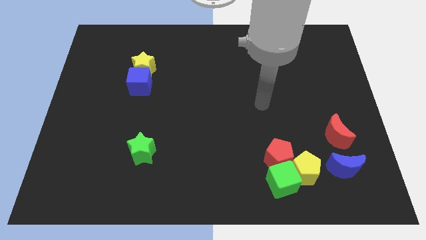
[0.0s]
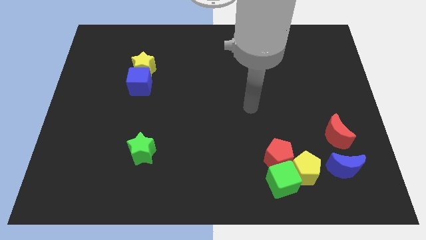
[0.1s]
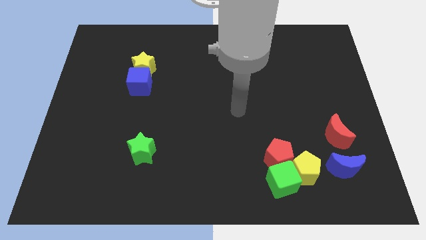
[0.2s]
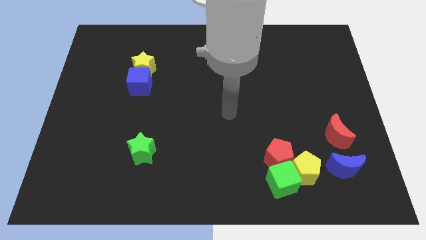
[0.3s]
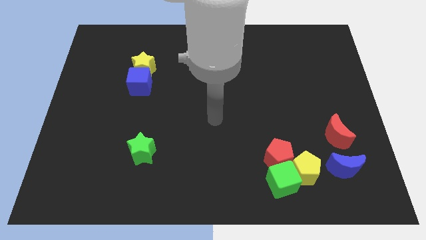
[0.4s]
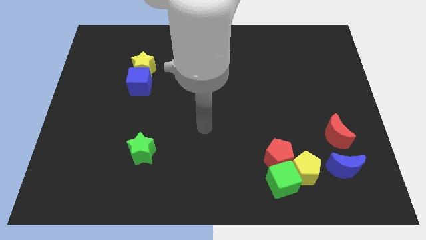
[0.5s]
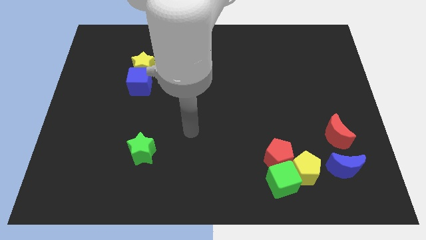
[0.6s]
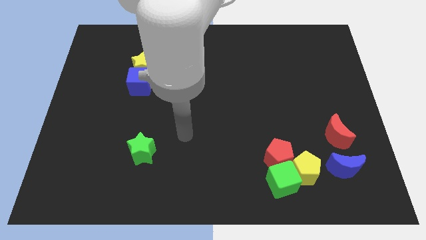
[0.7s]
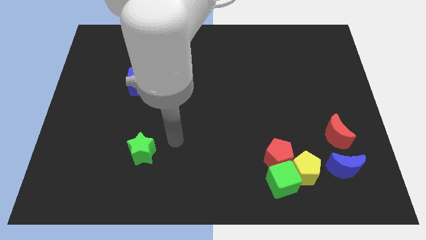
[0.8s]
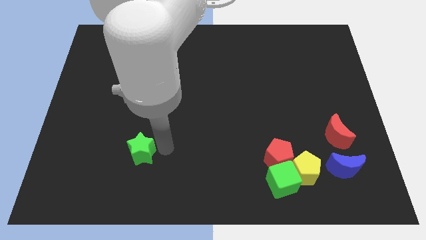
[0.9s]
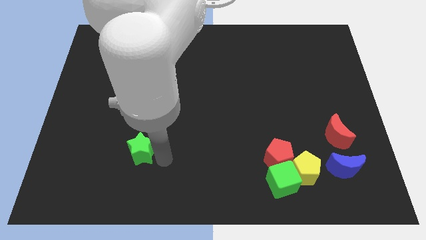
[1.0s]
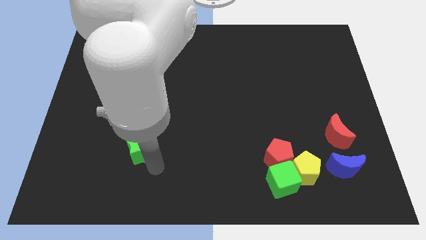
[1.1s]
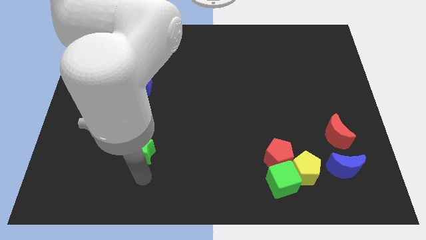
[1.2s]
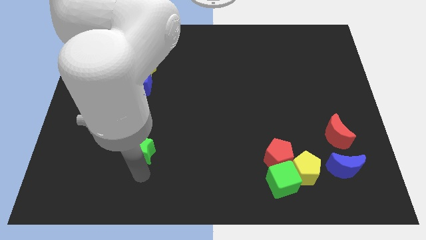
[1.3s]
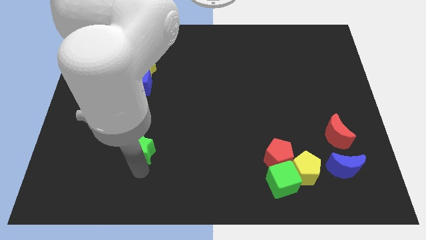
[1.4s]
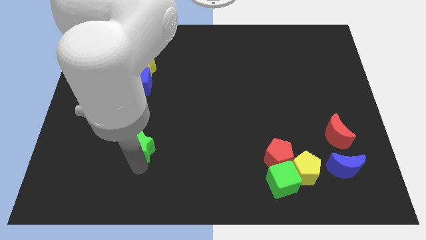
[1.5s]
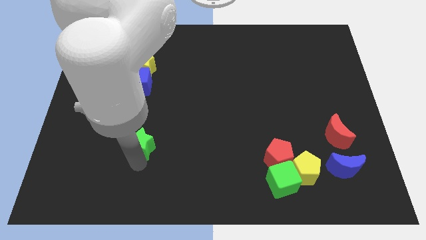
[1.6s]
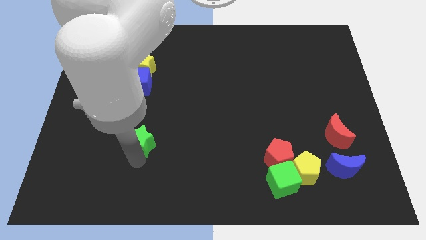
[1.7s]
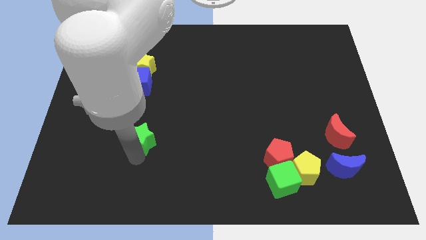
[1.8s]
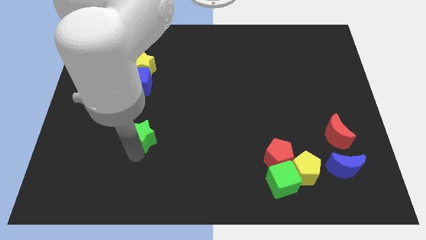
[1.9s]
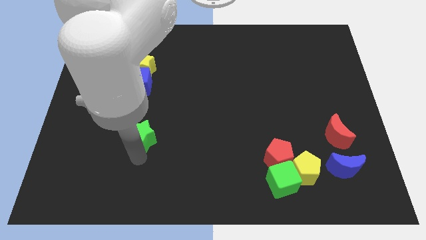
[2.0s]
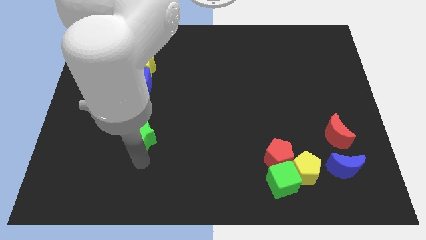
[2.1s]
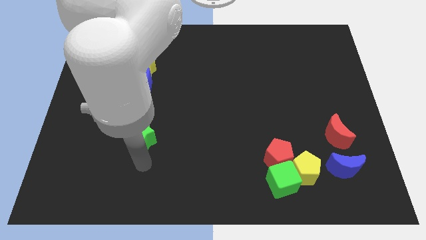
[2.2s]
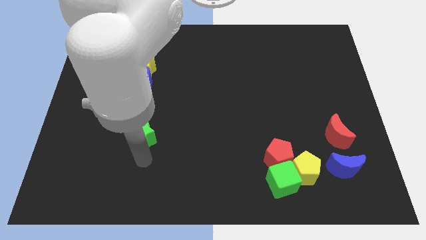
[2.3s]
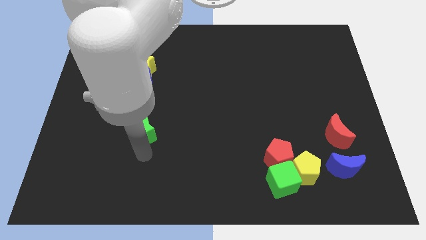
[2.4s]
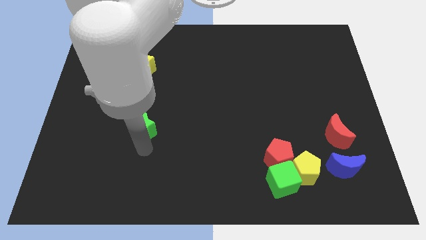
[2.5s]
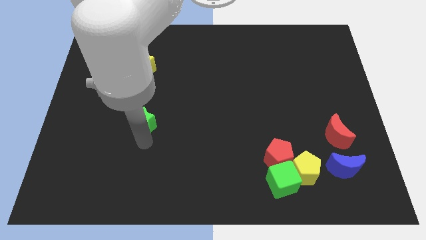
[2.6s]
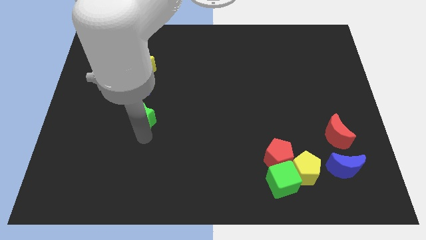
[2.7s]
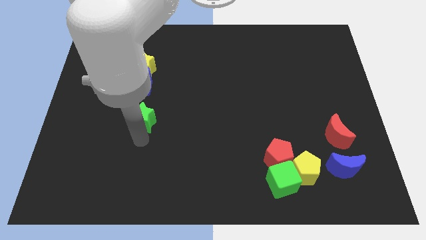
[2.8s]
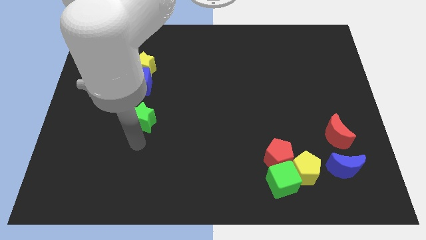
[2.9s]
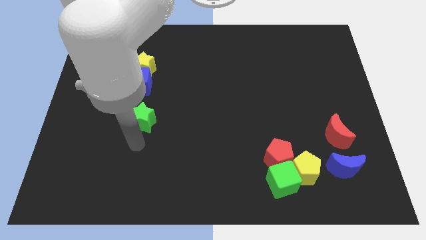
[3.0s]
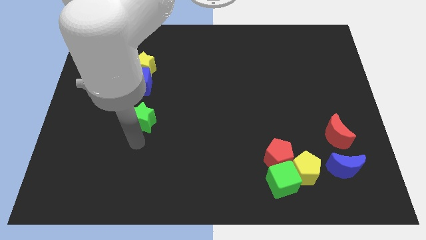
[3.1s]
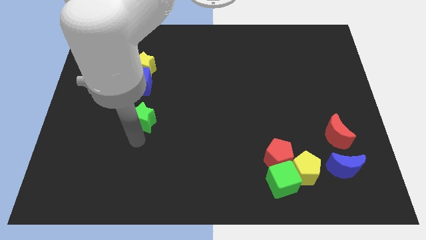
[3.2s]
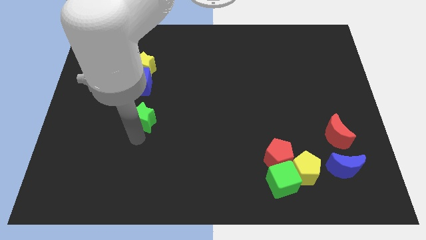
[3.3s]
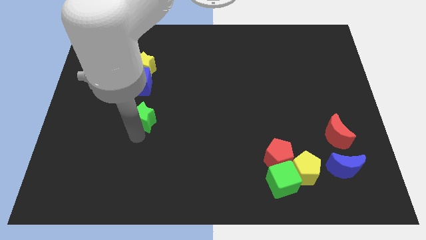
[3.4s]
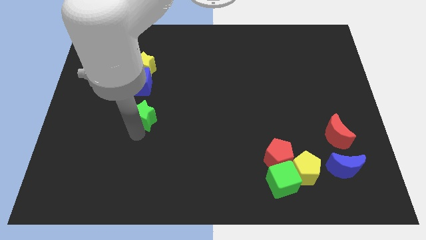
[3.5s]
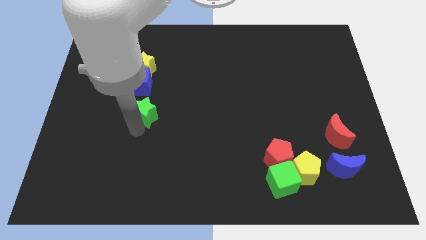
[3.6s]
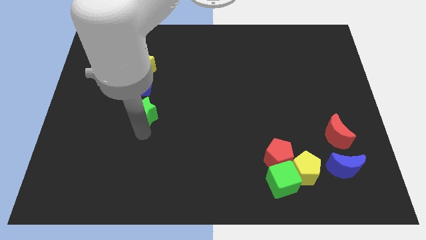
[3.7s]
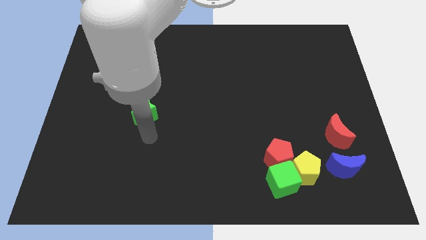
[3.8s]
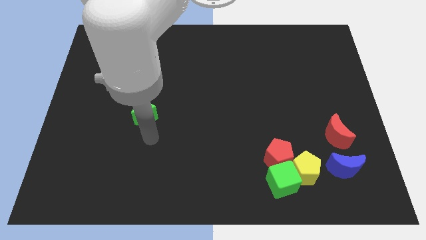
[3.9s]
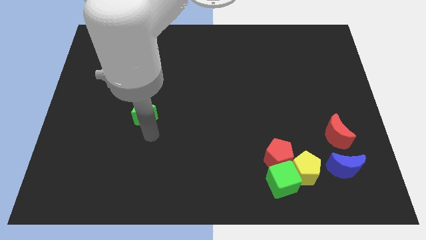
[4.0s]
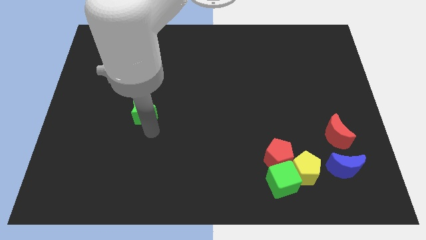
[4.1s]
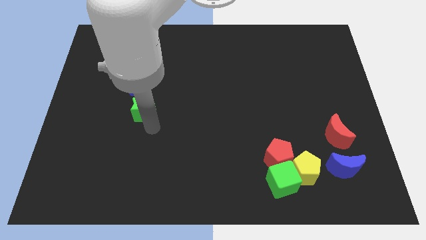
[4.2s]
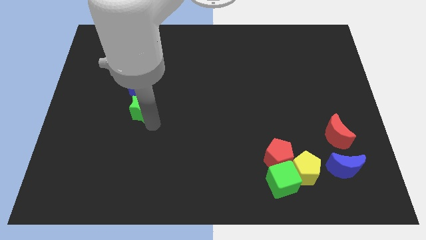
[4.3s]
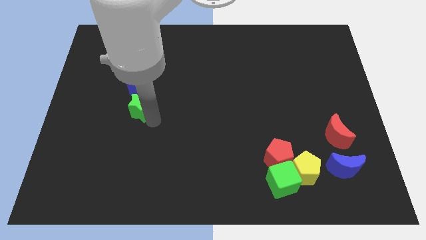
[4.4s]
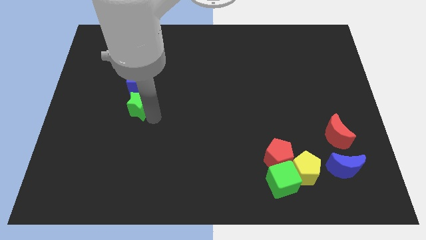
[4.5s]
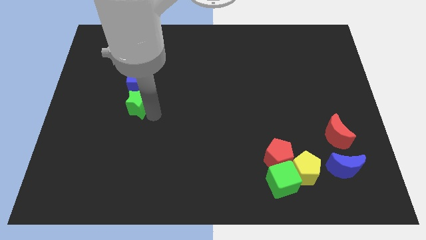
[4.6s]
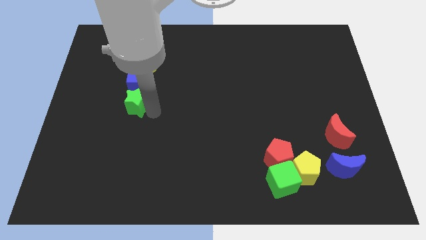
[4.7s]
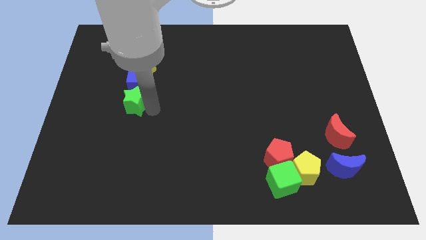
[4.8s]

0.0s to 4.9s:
push the green star close to the blue cube

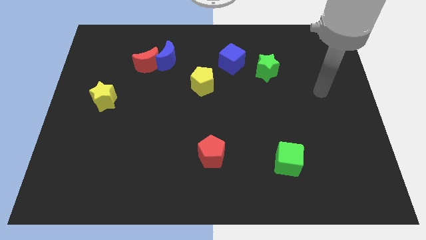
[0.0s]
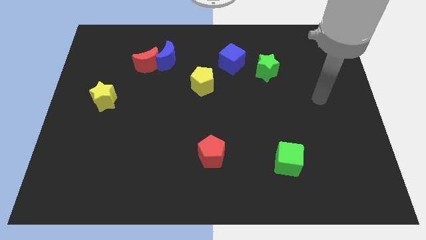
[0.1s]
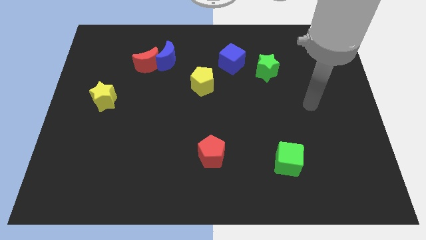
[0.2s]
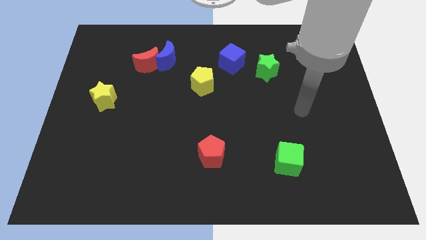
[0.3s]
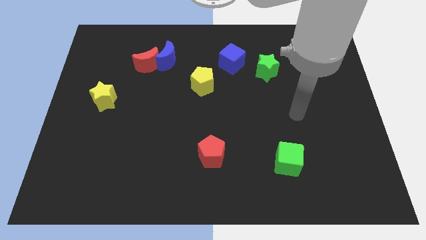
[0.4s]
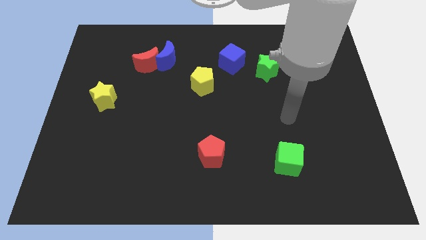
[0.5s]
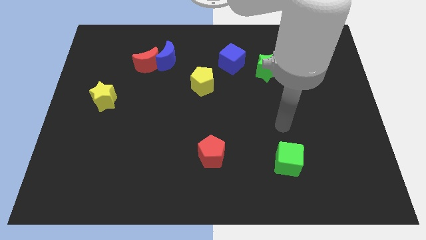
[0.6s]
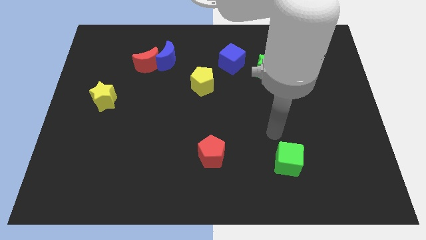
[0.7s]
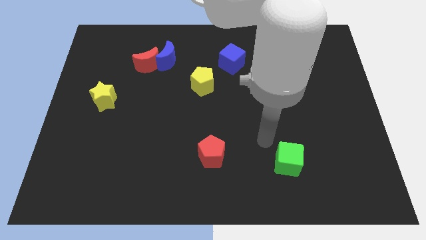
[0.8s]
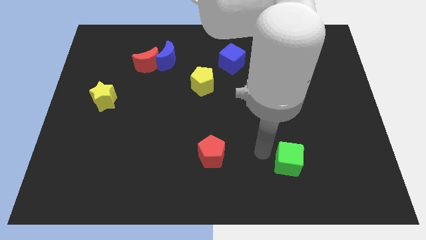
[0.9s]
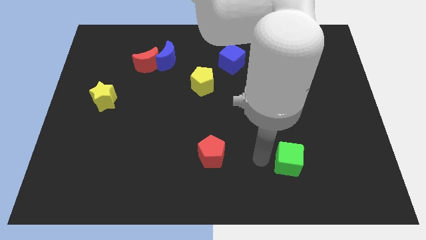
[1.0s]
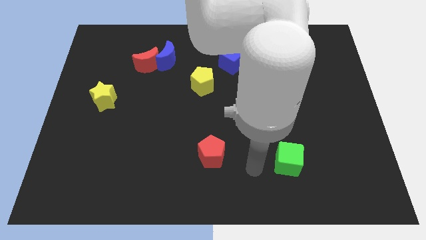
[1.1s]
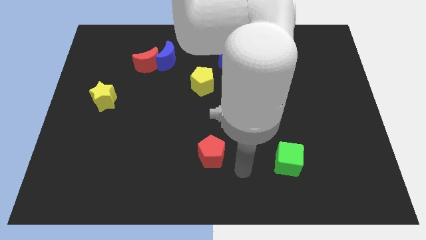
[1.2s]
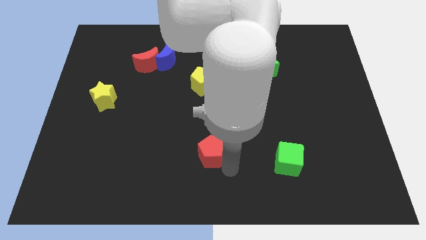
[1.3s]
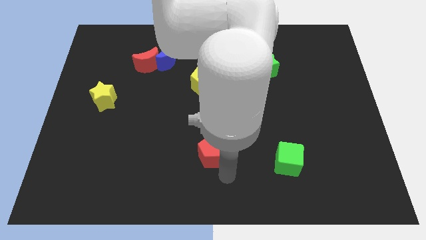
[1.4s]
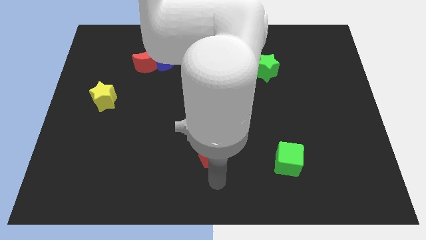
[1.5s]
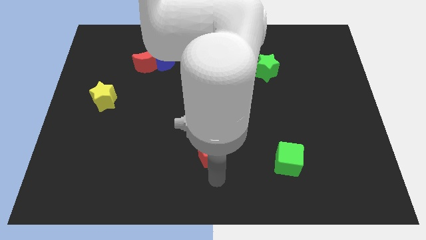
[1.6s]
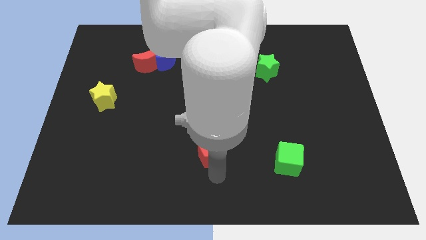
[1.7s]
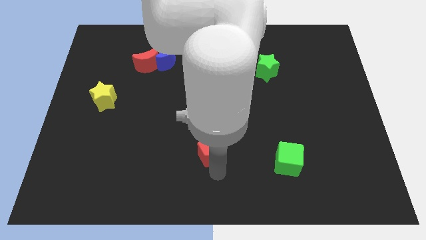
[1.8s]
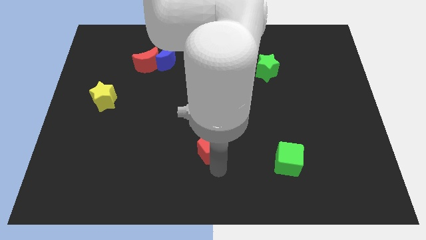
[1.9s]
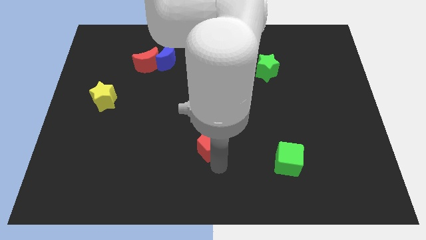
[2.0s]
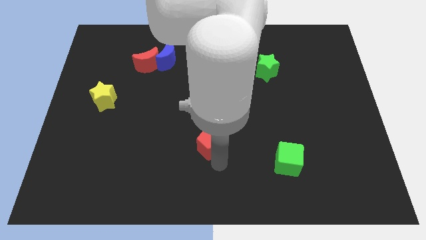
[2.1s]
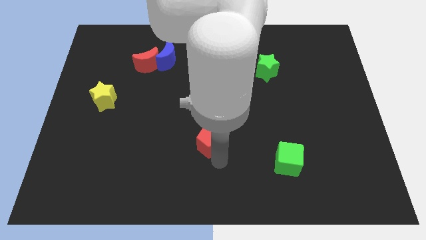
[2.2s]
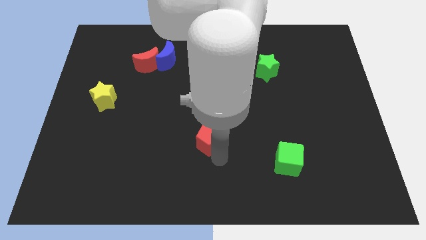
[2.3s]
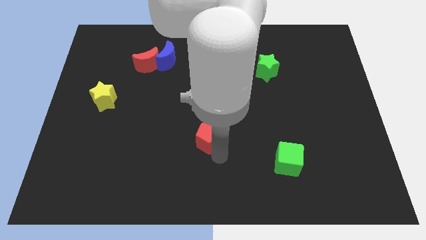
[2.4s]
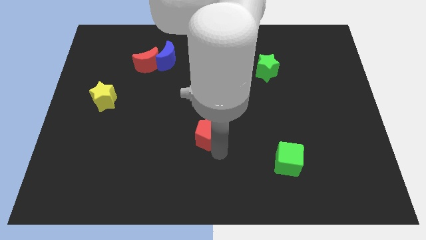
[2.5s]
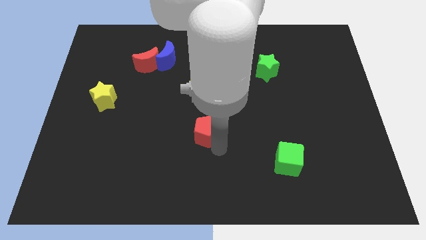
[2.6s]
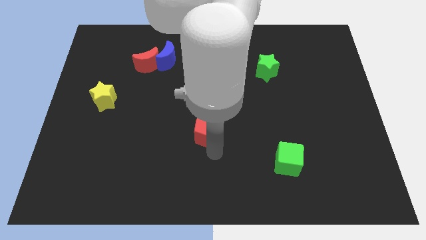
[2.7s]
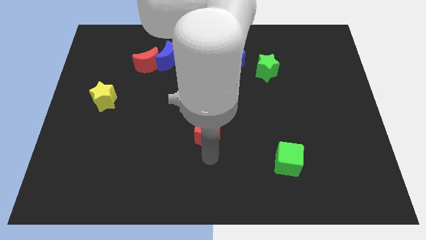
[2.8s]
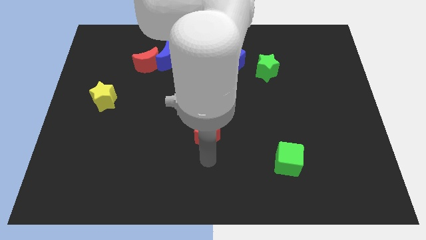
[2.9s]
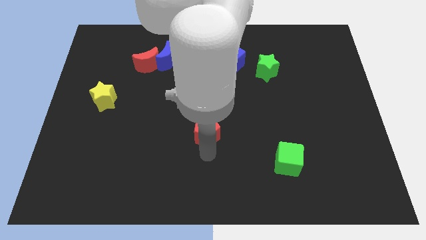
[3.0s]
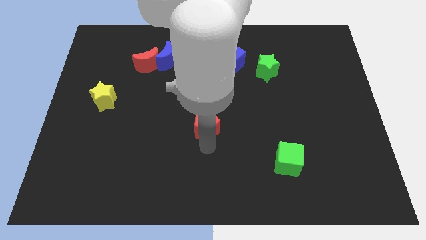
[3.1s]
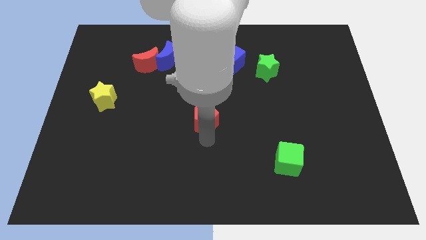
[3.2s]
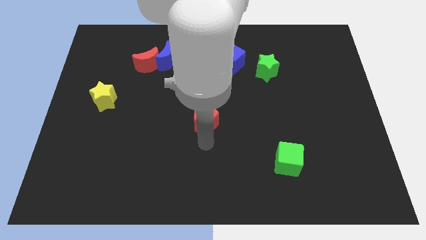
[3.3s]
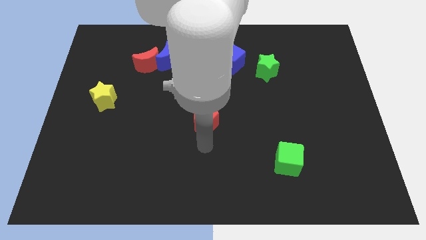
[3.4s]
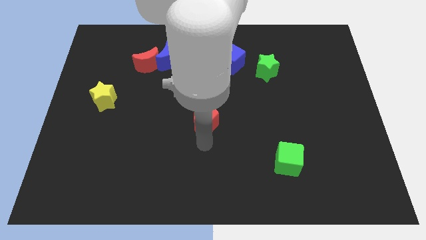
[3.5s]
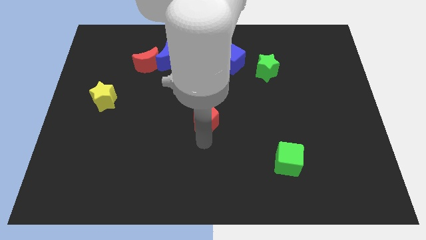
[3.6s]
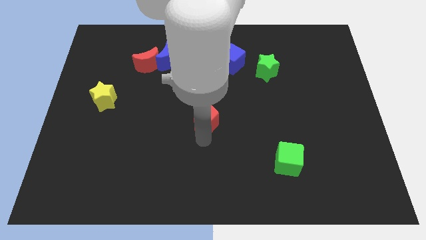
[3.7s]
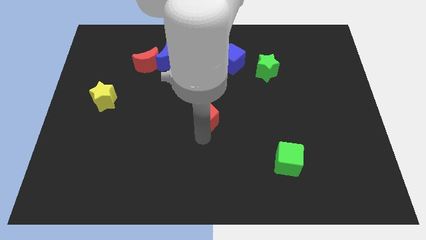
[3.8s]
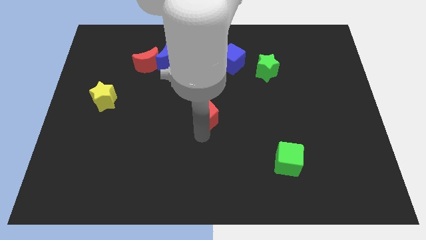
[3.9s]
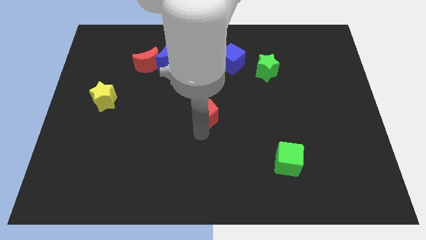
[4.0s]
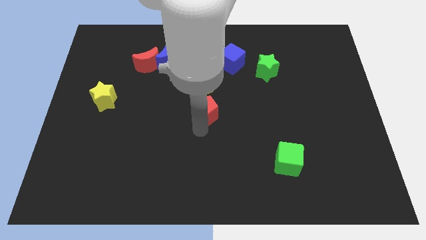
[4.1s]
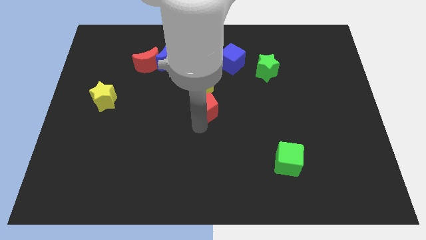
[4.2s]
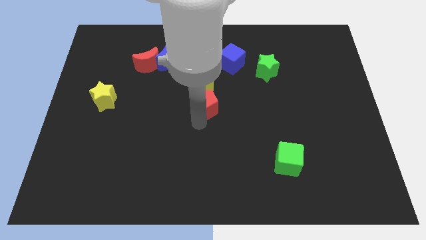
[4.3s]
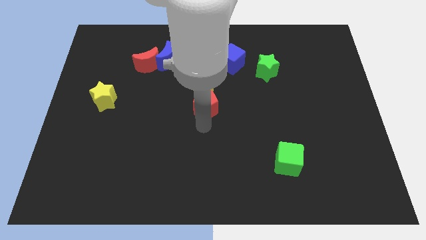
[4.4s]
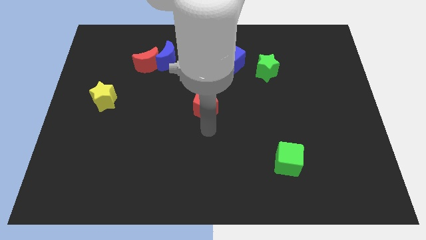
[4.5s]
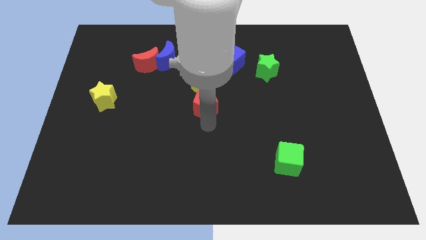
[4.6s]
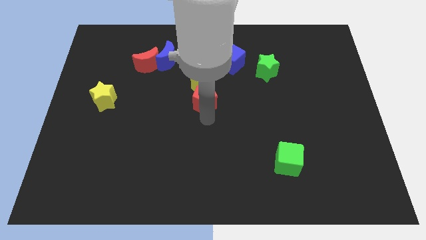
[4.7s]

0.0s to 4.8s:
push the red pentagon close to the yellow pentagon
